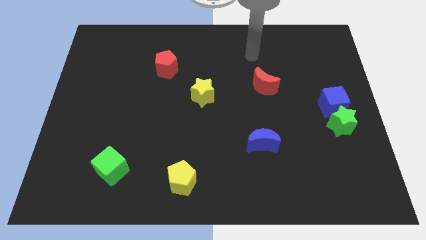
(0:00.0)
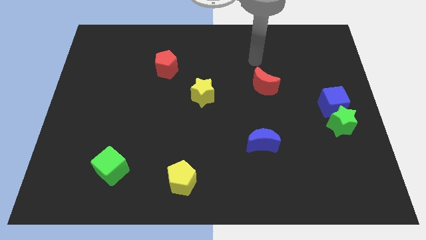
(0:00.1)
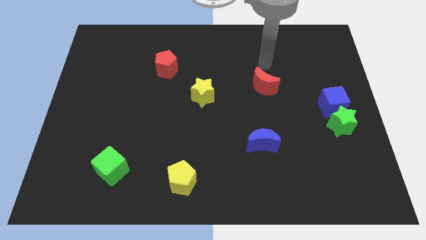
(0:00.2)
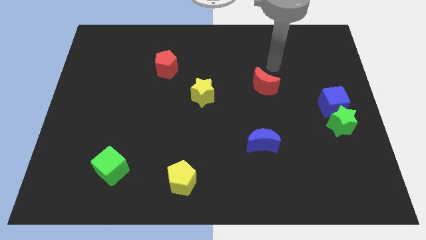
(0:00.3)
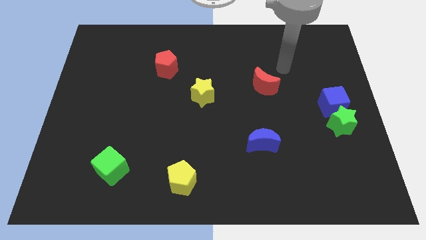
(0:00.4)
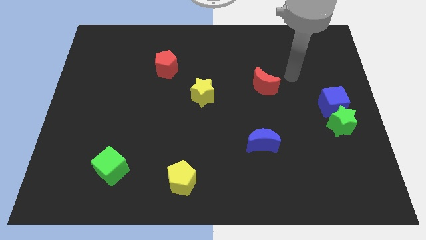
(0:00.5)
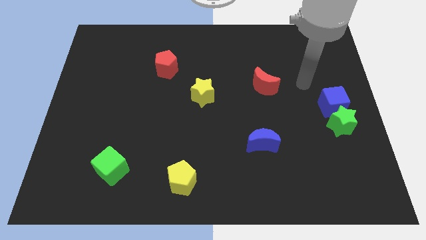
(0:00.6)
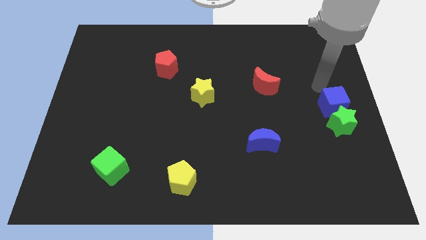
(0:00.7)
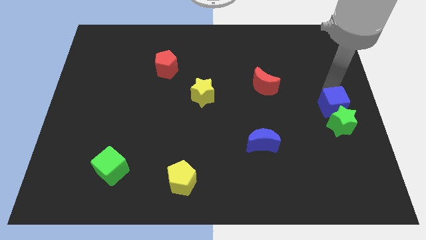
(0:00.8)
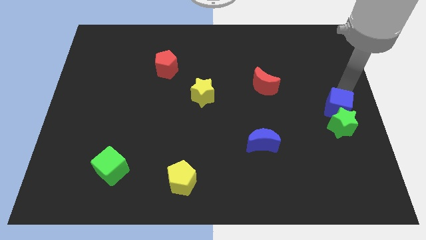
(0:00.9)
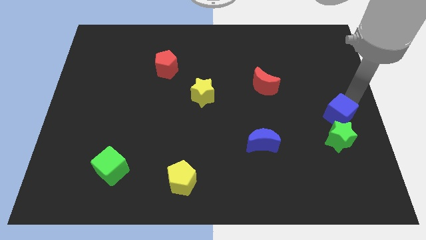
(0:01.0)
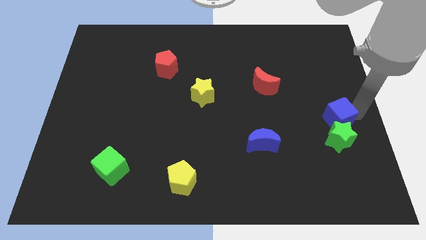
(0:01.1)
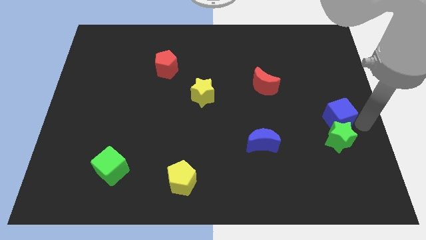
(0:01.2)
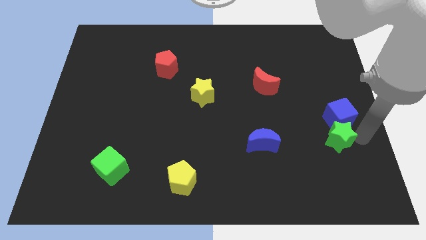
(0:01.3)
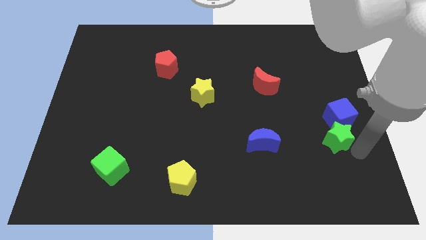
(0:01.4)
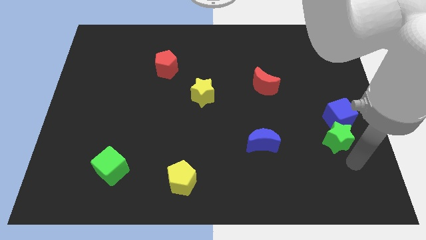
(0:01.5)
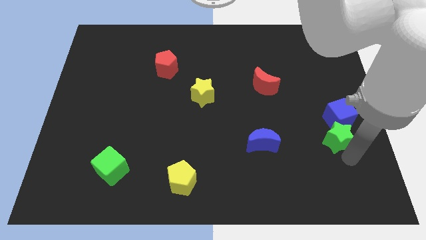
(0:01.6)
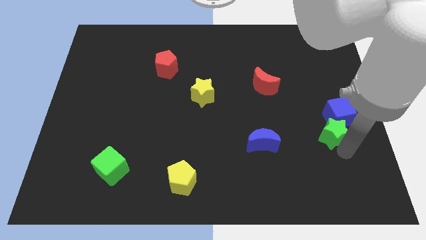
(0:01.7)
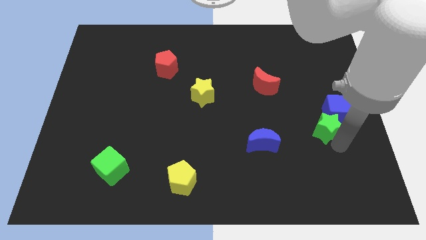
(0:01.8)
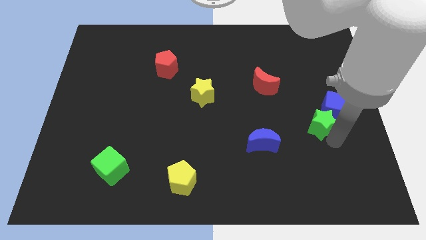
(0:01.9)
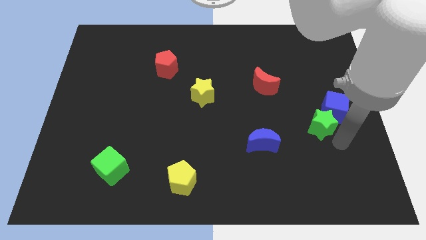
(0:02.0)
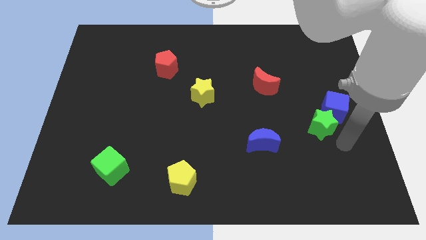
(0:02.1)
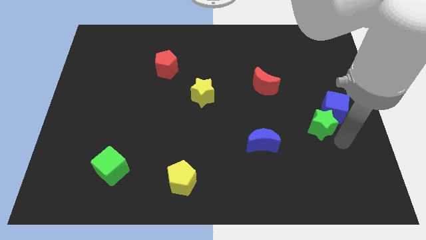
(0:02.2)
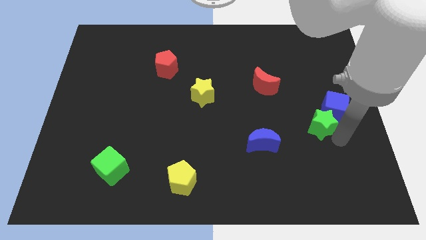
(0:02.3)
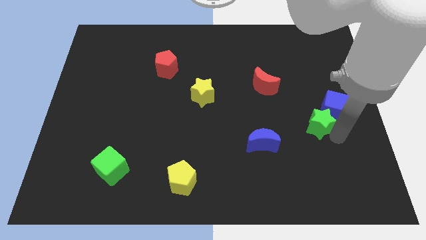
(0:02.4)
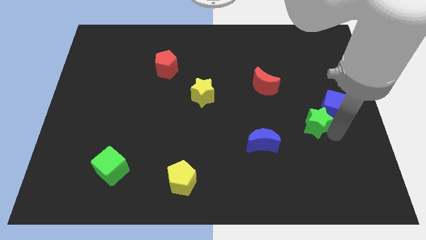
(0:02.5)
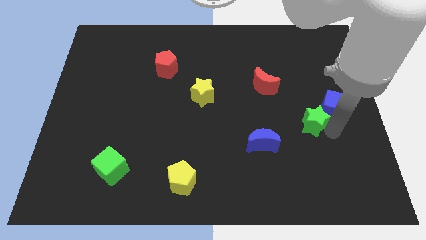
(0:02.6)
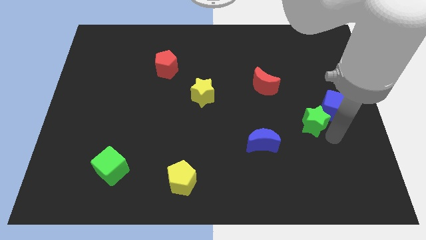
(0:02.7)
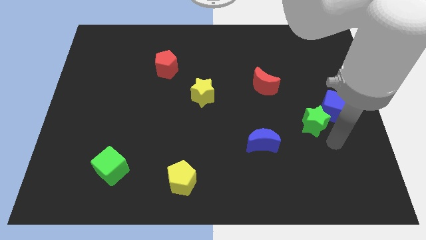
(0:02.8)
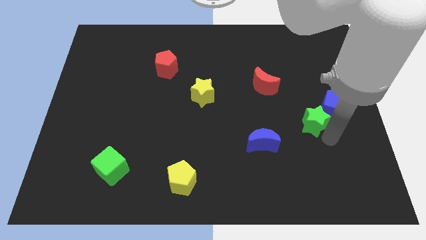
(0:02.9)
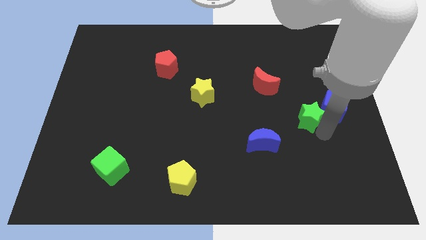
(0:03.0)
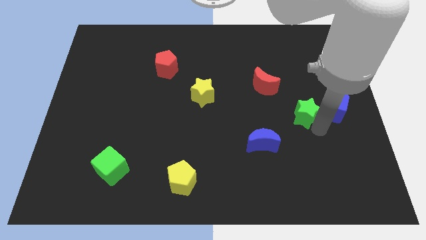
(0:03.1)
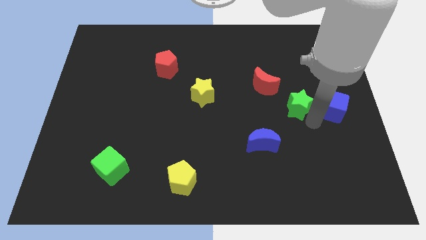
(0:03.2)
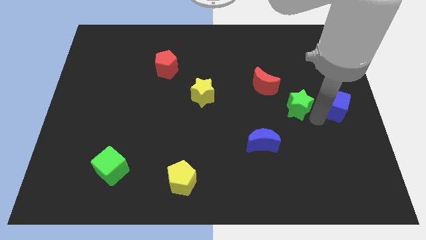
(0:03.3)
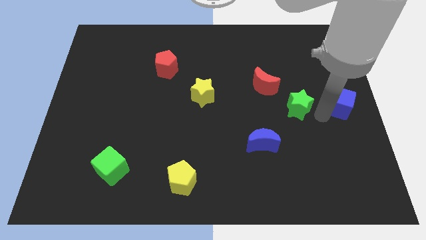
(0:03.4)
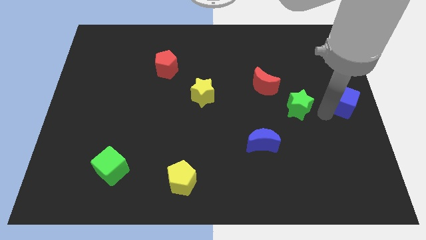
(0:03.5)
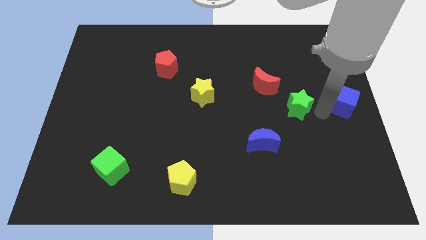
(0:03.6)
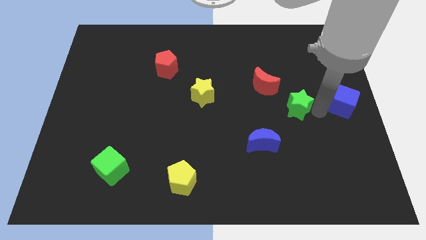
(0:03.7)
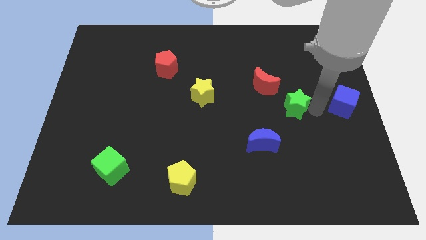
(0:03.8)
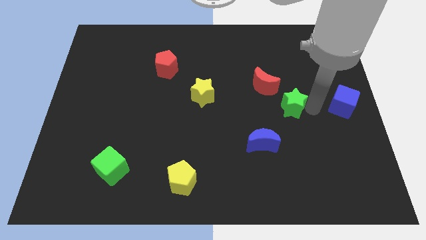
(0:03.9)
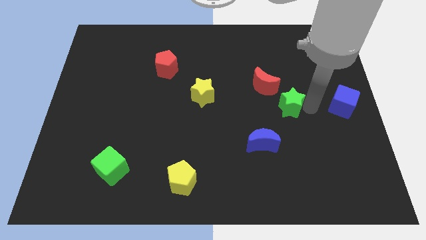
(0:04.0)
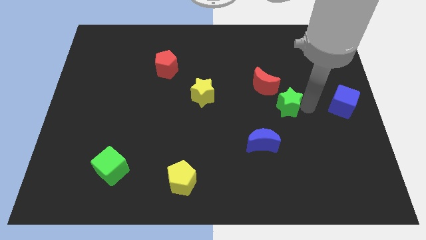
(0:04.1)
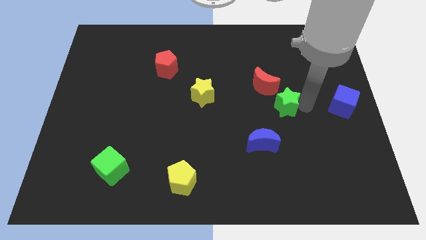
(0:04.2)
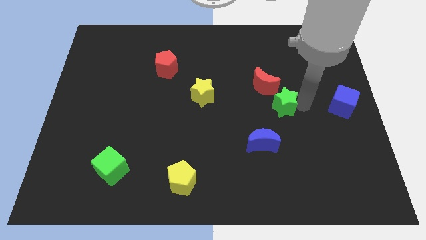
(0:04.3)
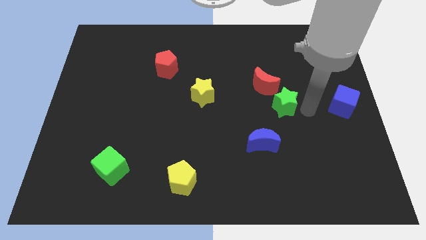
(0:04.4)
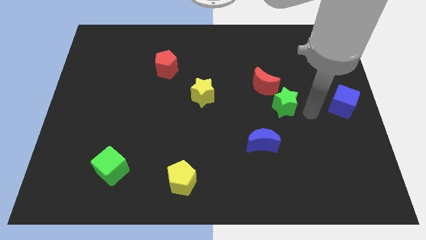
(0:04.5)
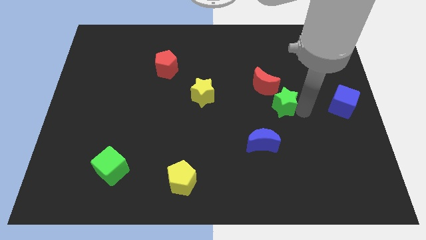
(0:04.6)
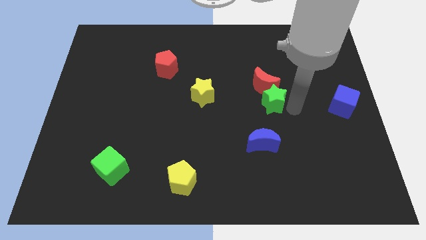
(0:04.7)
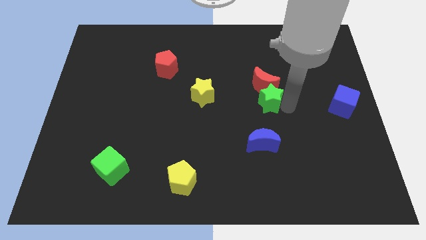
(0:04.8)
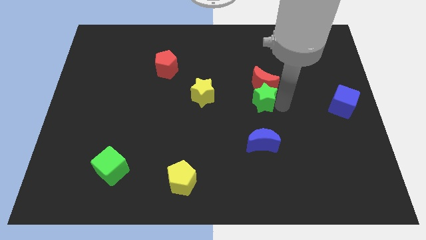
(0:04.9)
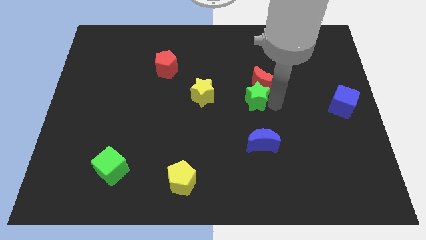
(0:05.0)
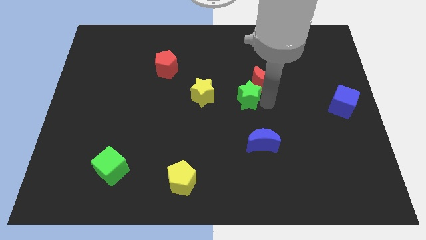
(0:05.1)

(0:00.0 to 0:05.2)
put the green star to the left of the red moon

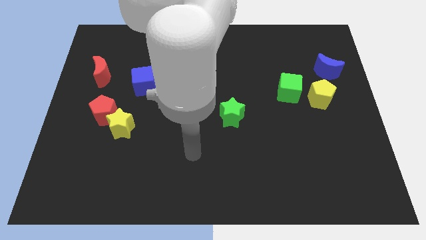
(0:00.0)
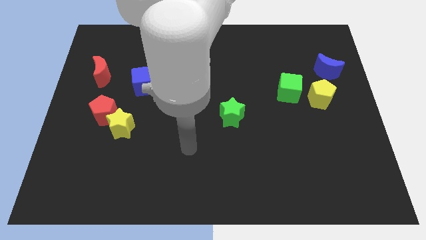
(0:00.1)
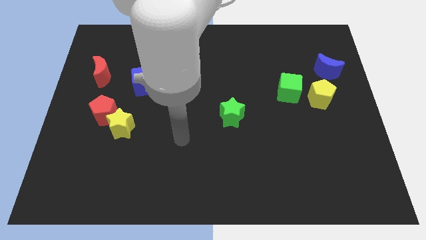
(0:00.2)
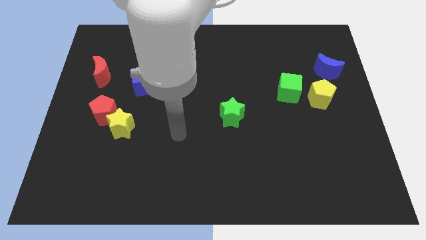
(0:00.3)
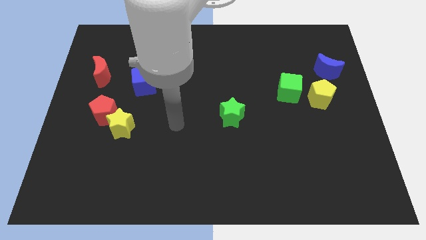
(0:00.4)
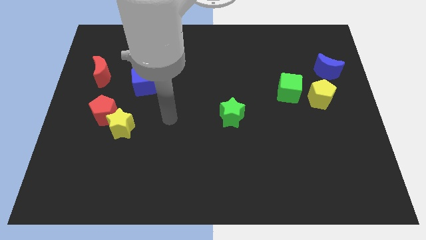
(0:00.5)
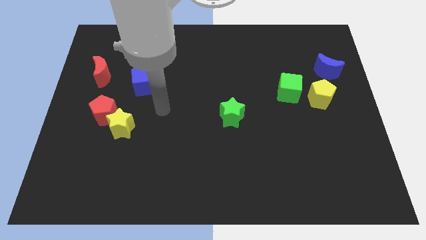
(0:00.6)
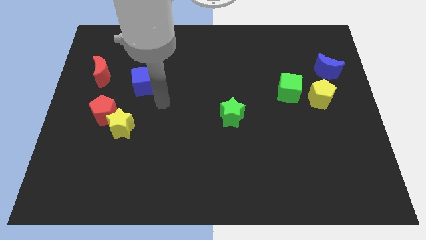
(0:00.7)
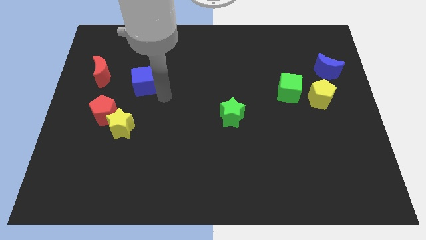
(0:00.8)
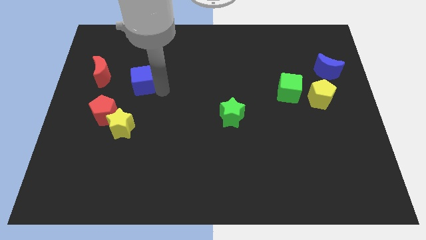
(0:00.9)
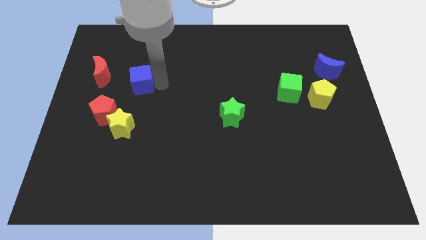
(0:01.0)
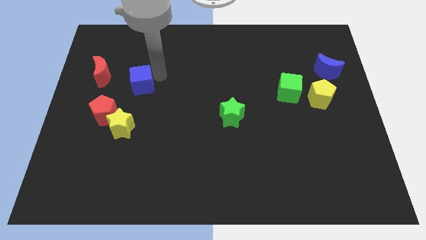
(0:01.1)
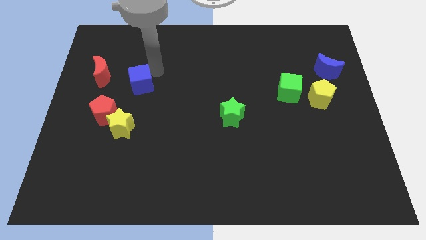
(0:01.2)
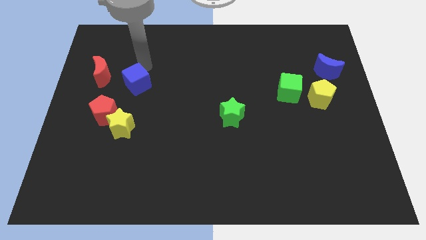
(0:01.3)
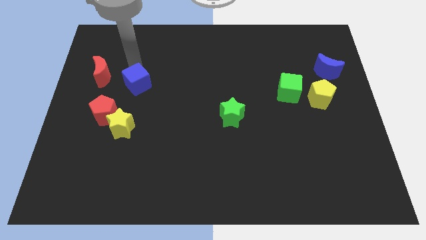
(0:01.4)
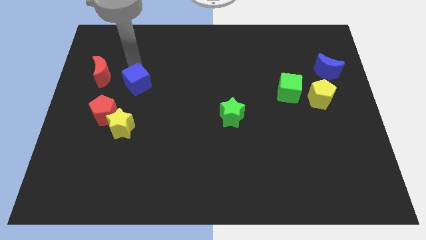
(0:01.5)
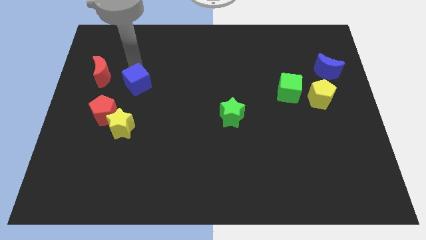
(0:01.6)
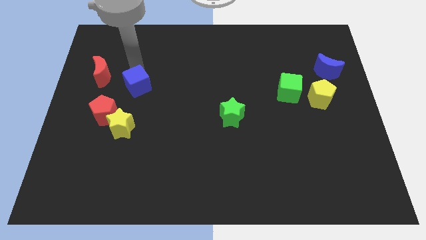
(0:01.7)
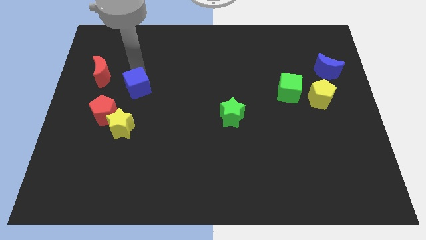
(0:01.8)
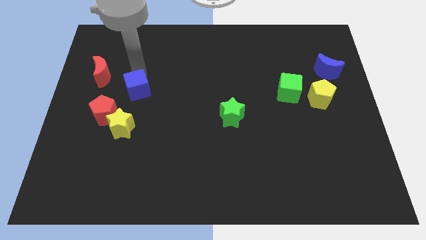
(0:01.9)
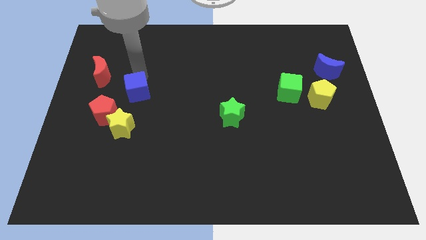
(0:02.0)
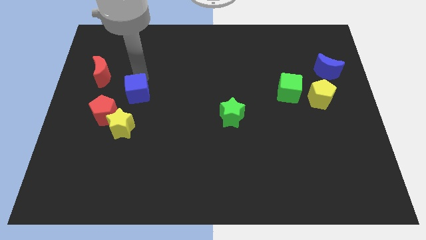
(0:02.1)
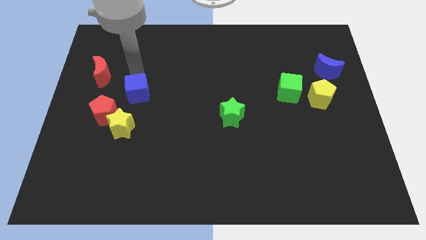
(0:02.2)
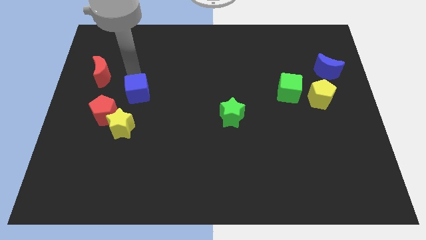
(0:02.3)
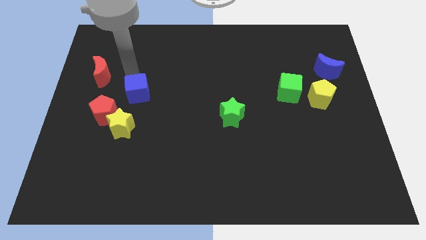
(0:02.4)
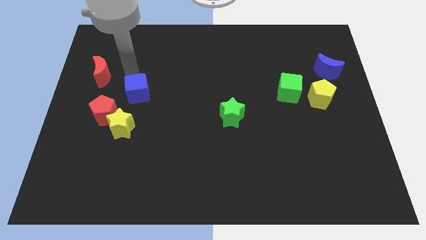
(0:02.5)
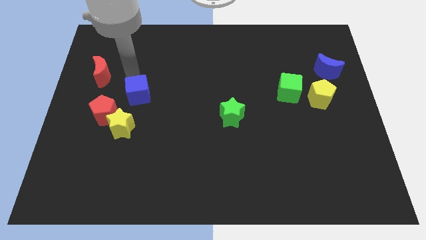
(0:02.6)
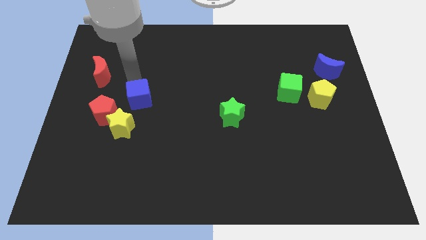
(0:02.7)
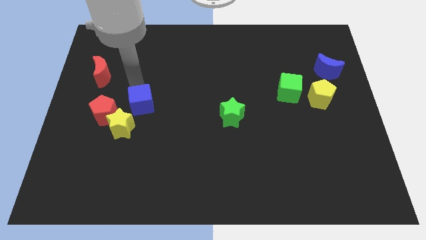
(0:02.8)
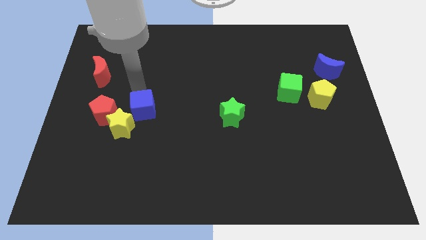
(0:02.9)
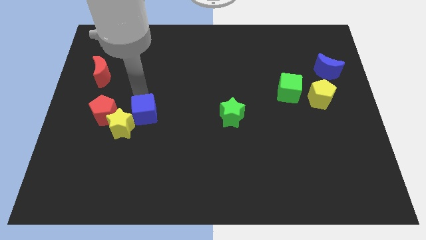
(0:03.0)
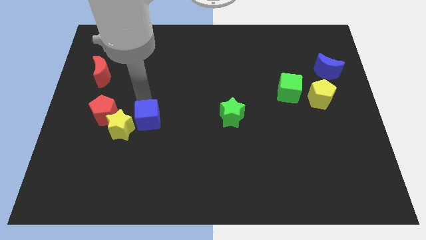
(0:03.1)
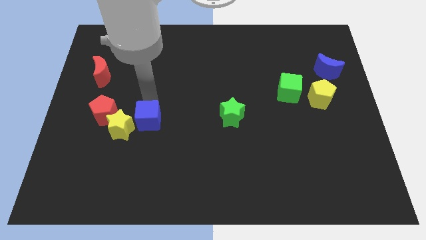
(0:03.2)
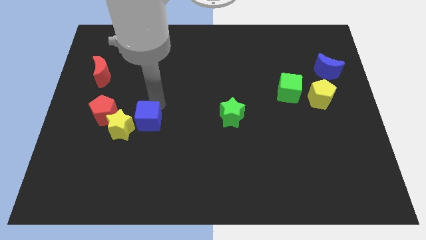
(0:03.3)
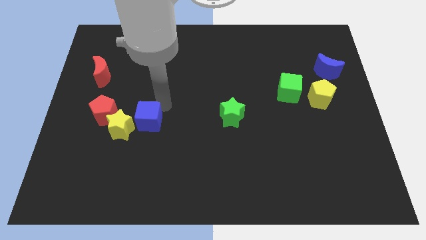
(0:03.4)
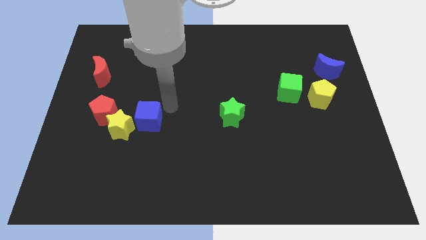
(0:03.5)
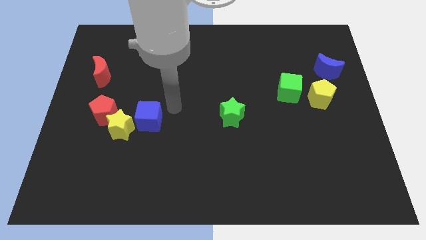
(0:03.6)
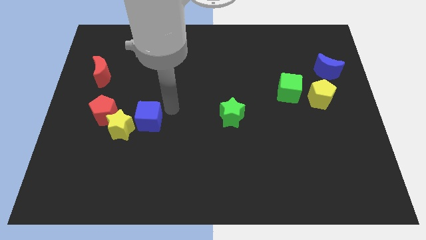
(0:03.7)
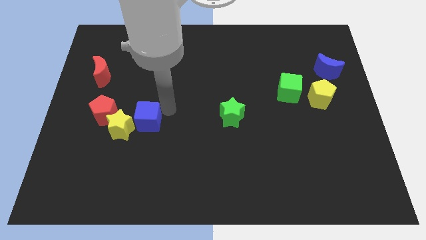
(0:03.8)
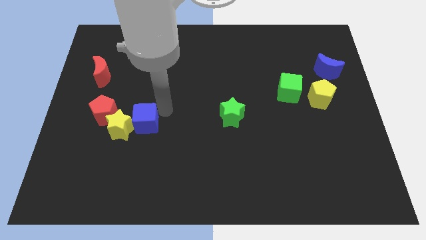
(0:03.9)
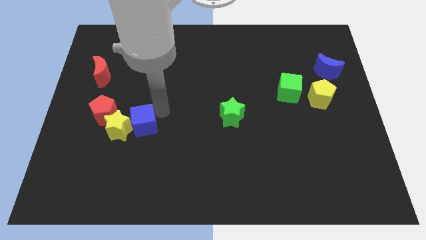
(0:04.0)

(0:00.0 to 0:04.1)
slide the blue cube to the bottom right side of the red pentagon
